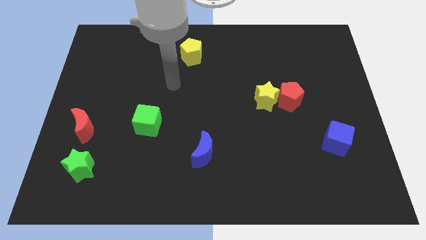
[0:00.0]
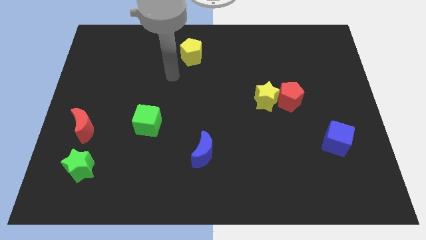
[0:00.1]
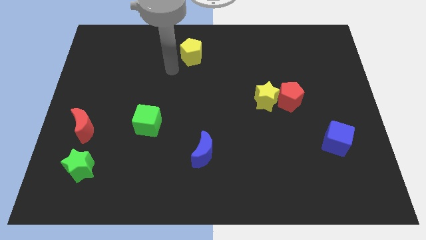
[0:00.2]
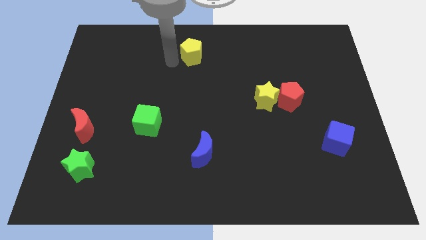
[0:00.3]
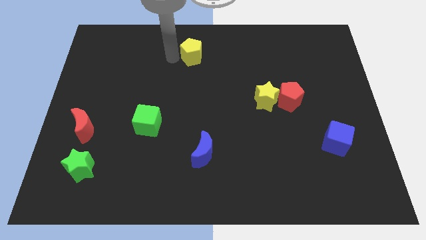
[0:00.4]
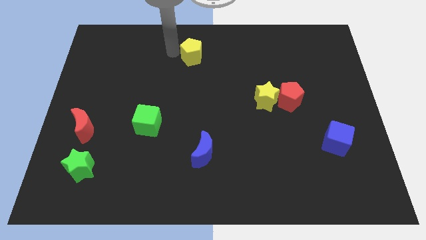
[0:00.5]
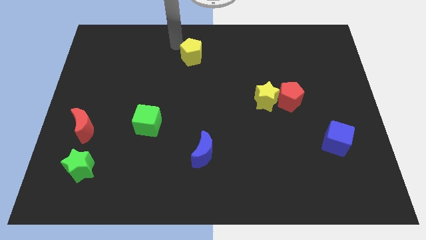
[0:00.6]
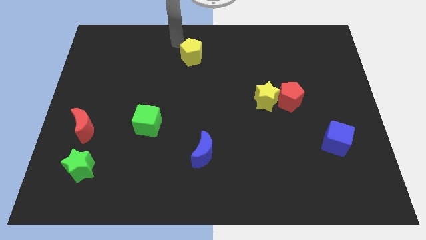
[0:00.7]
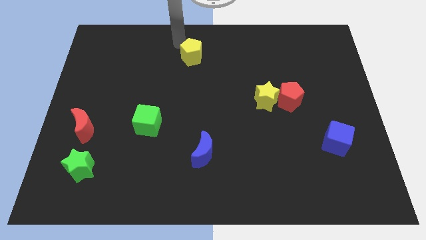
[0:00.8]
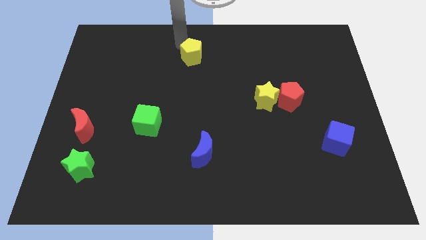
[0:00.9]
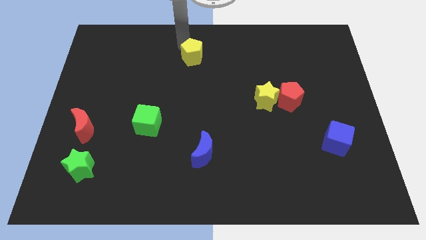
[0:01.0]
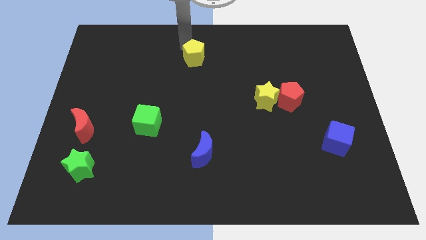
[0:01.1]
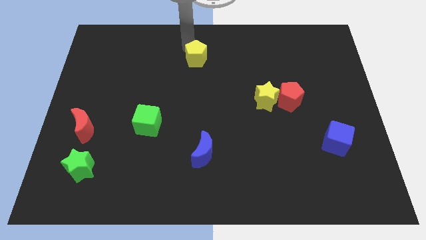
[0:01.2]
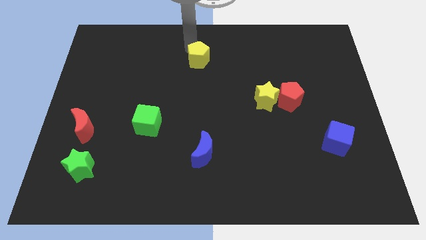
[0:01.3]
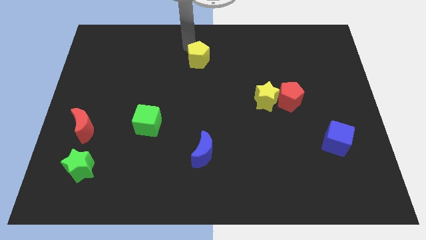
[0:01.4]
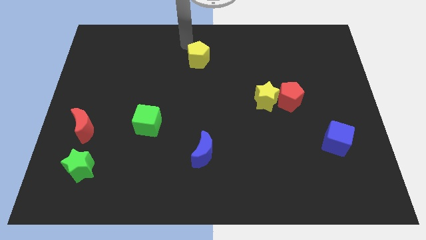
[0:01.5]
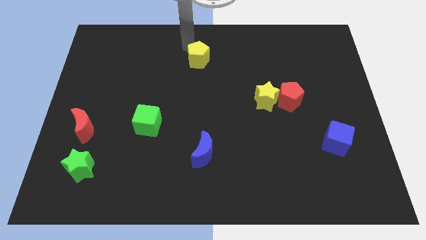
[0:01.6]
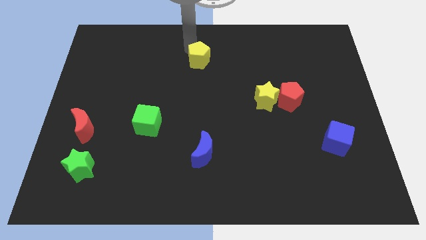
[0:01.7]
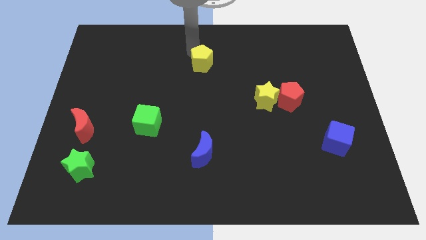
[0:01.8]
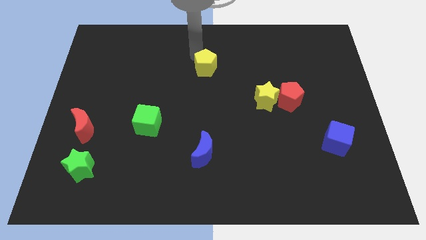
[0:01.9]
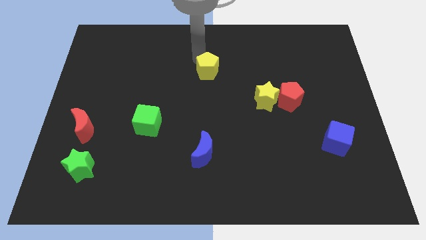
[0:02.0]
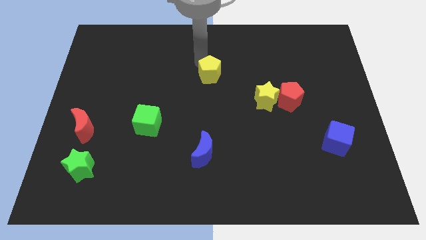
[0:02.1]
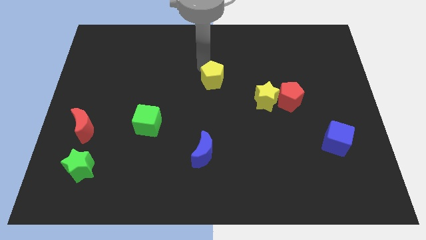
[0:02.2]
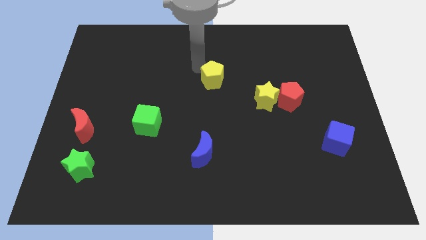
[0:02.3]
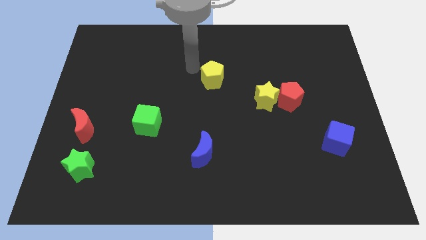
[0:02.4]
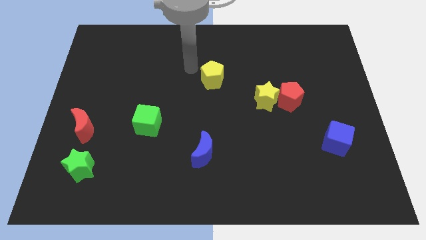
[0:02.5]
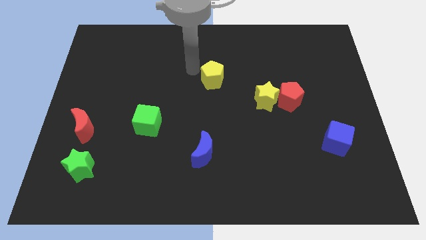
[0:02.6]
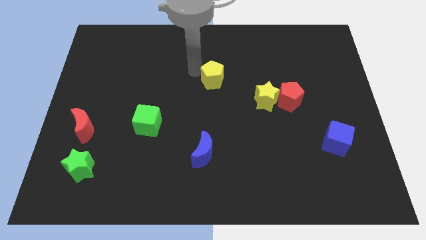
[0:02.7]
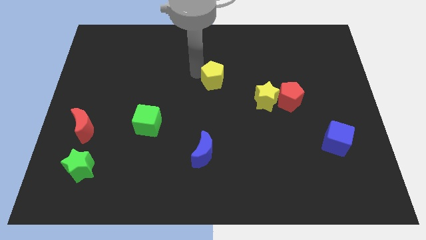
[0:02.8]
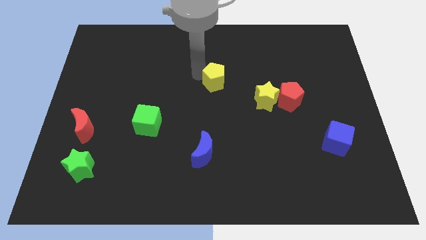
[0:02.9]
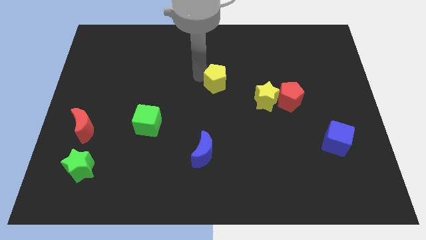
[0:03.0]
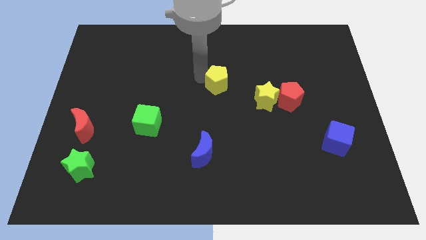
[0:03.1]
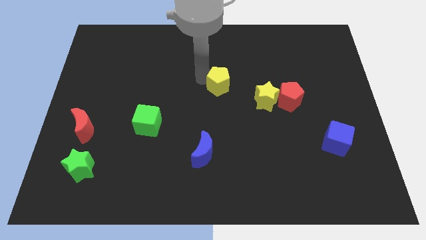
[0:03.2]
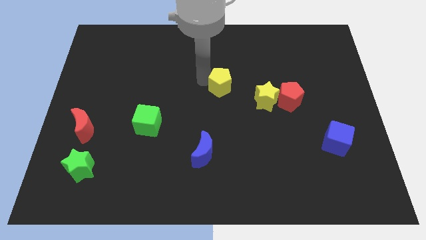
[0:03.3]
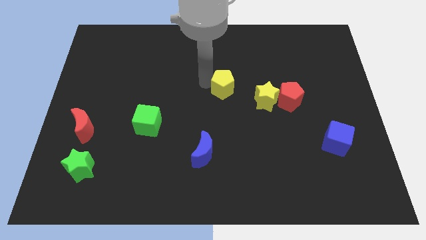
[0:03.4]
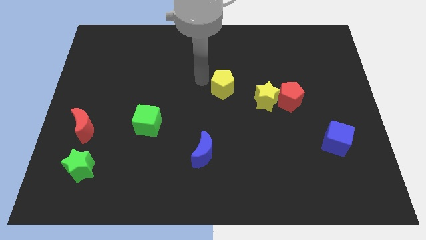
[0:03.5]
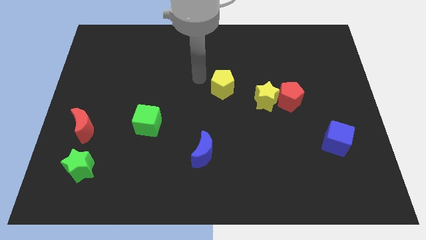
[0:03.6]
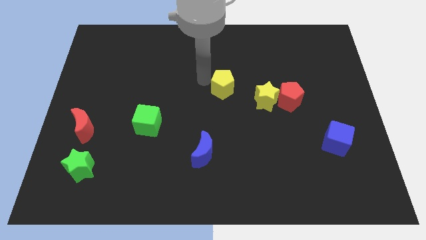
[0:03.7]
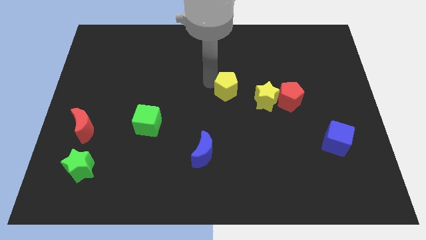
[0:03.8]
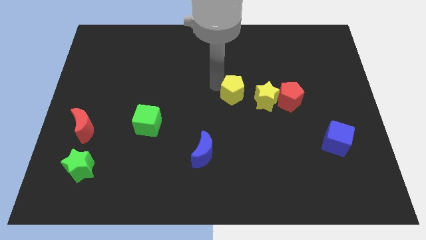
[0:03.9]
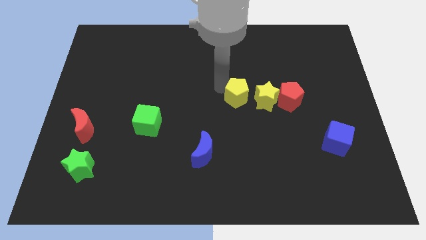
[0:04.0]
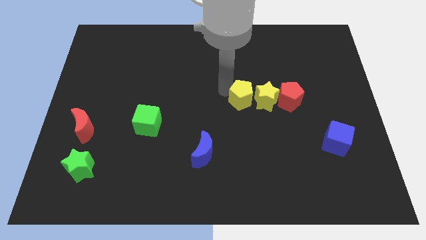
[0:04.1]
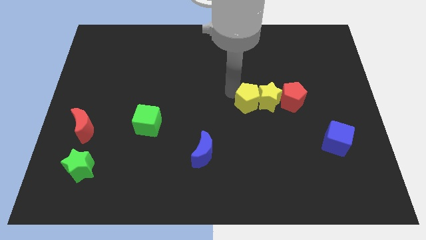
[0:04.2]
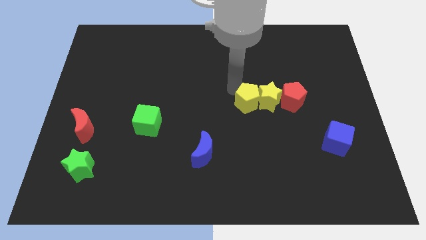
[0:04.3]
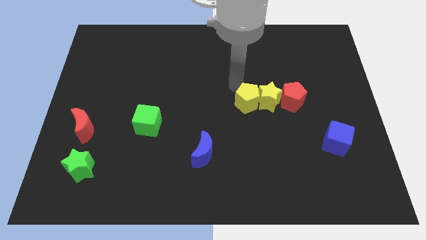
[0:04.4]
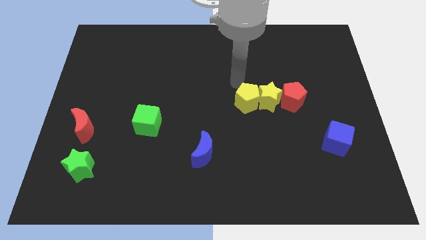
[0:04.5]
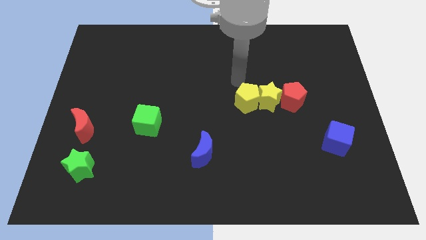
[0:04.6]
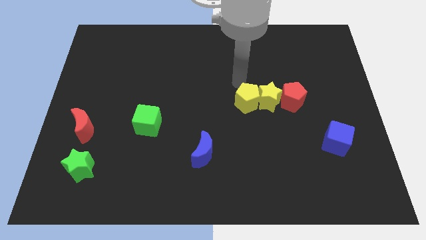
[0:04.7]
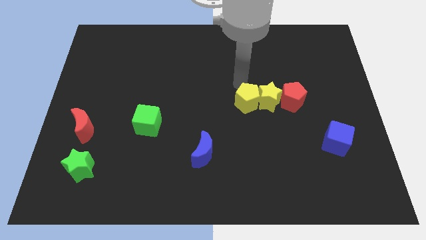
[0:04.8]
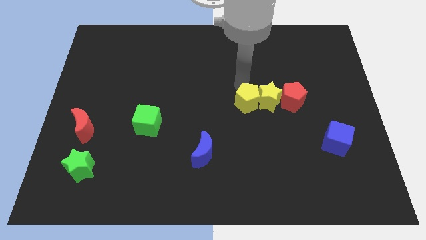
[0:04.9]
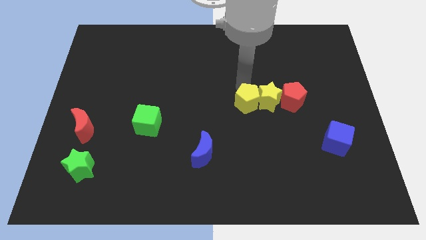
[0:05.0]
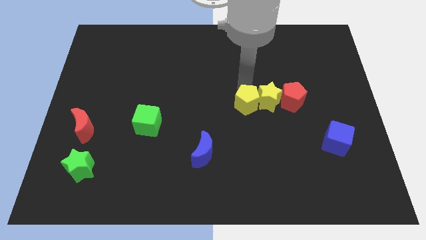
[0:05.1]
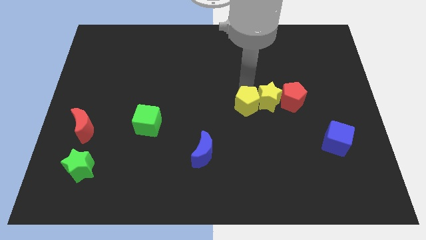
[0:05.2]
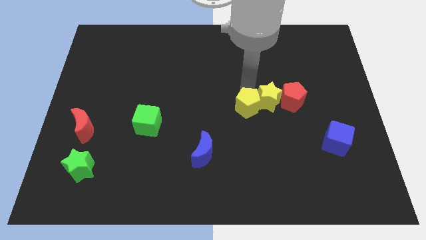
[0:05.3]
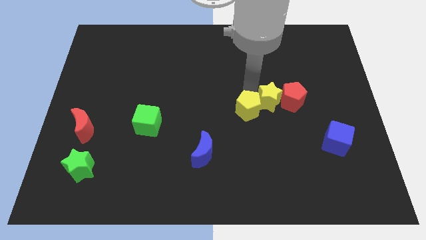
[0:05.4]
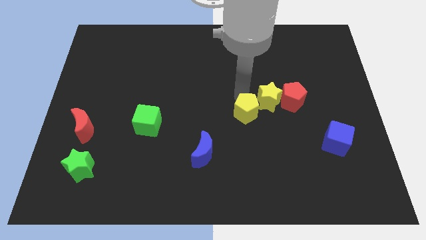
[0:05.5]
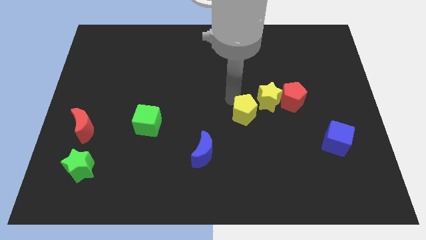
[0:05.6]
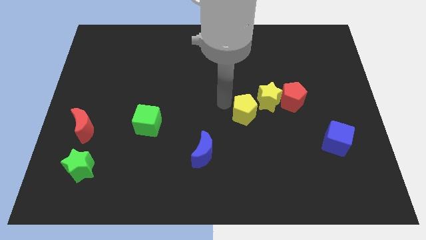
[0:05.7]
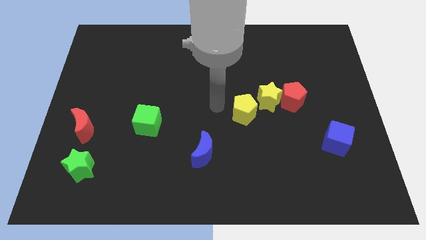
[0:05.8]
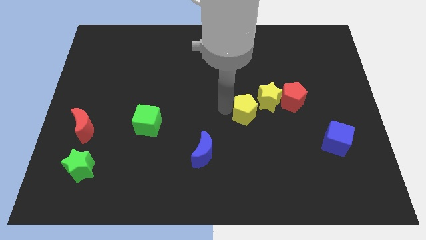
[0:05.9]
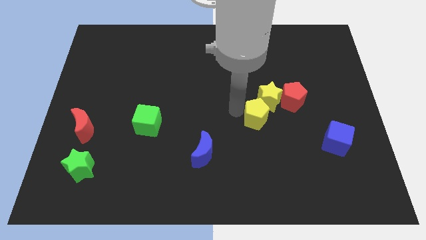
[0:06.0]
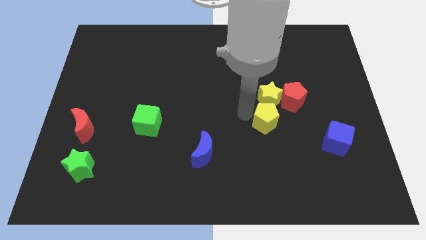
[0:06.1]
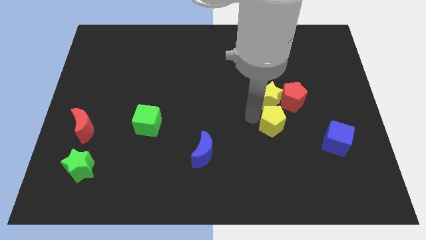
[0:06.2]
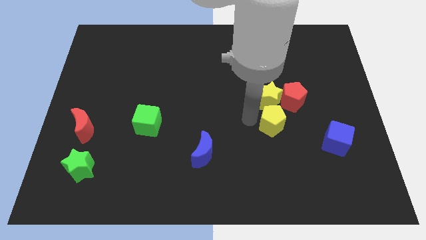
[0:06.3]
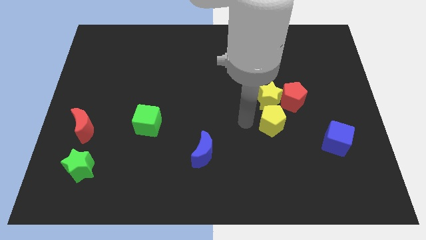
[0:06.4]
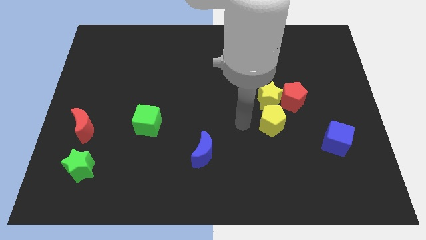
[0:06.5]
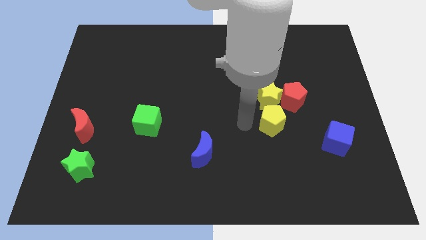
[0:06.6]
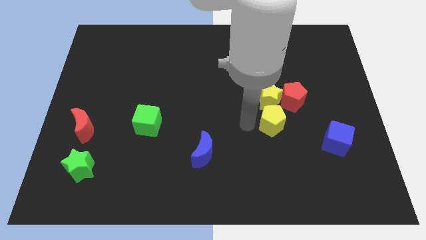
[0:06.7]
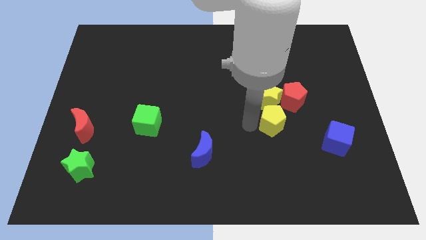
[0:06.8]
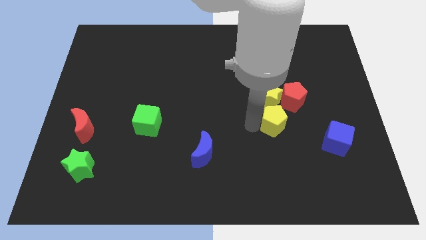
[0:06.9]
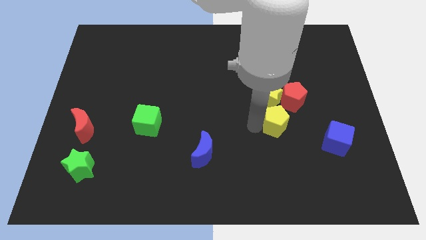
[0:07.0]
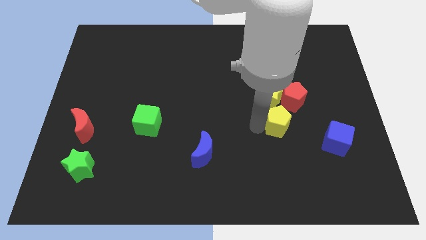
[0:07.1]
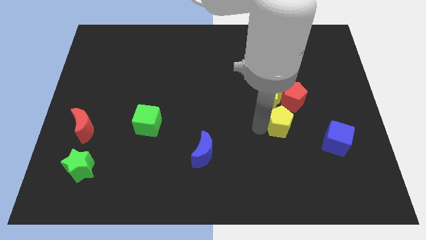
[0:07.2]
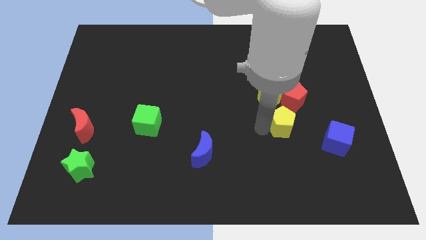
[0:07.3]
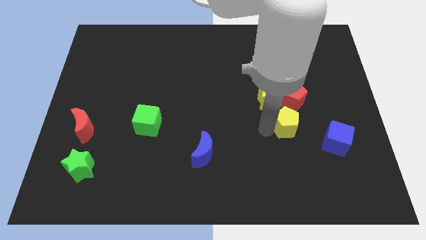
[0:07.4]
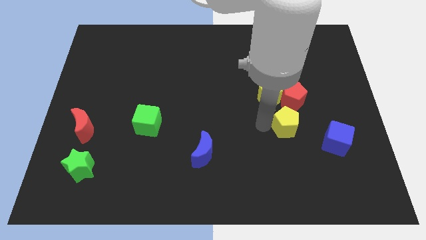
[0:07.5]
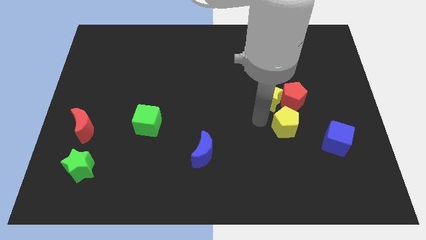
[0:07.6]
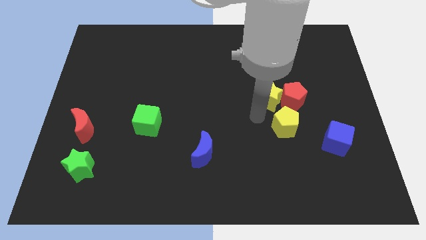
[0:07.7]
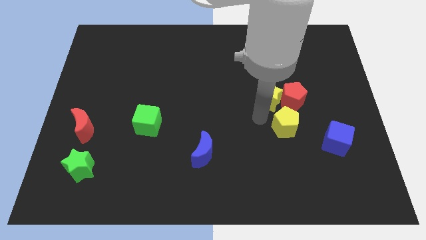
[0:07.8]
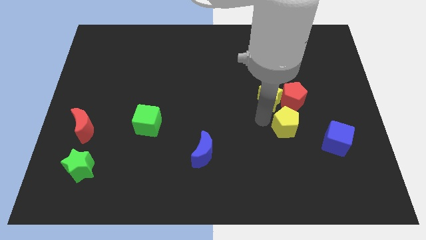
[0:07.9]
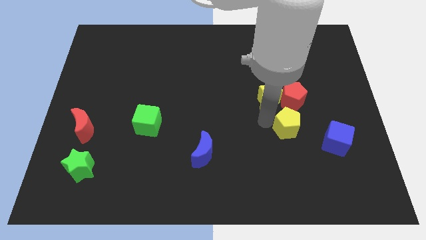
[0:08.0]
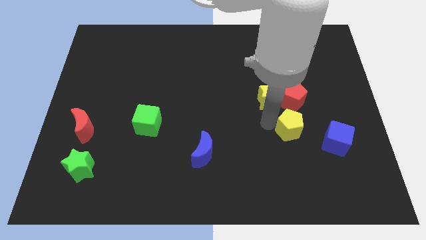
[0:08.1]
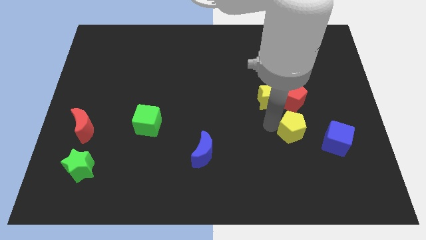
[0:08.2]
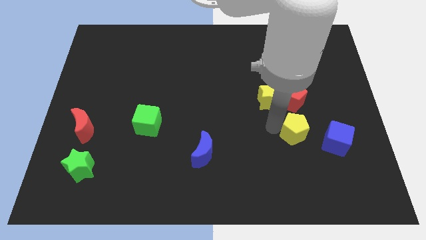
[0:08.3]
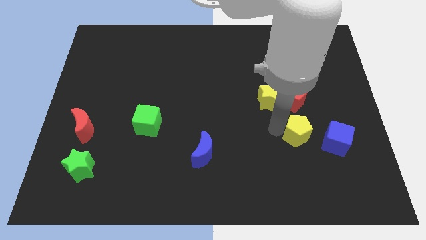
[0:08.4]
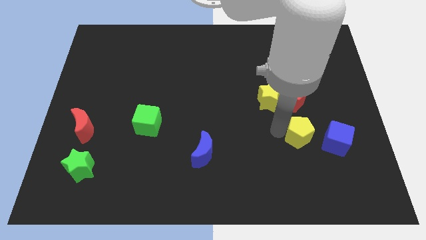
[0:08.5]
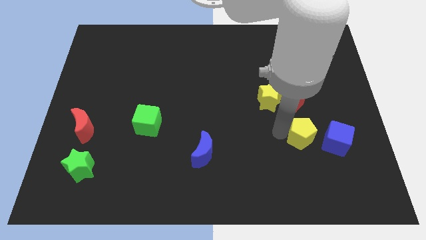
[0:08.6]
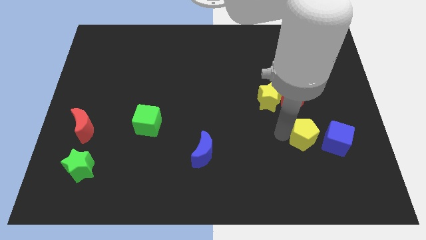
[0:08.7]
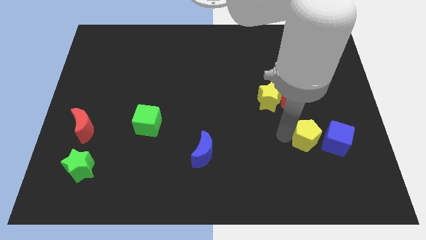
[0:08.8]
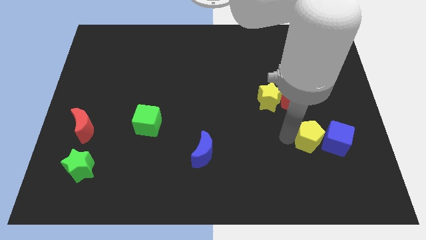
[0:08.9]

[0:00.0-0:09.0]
slide the yellow pentagon to the blue cube
